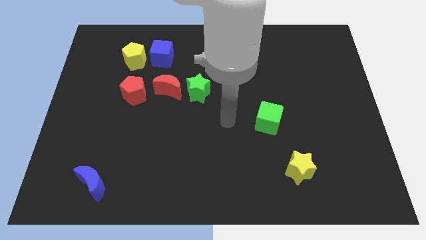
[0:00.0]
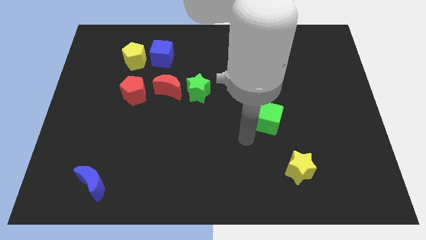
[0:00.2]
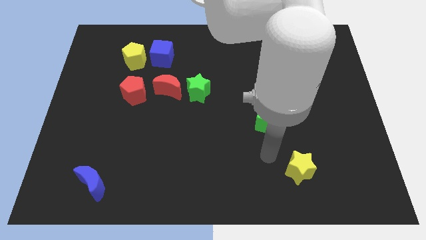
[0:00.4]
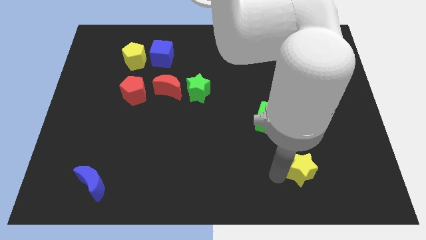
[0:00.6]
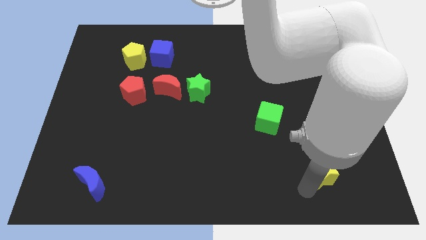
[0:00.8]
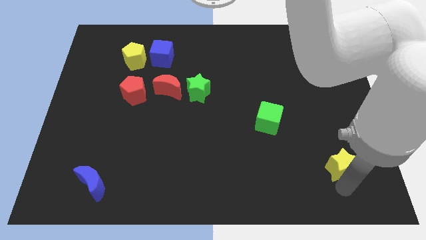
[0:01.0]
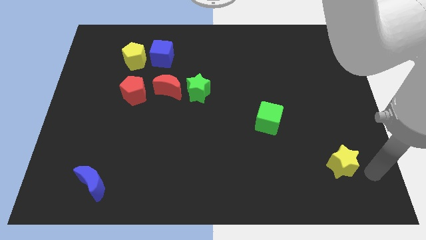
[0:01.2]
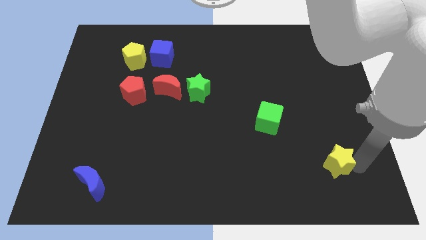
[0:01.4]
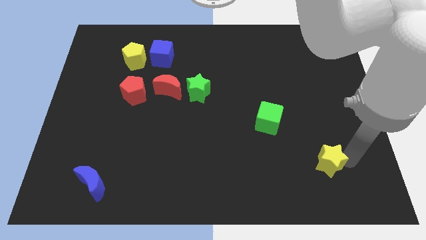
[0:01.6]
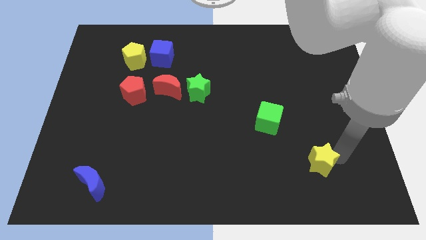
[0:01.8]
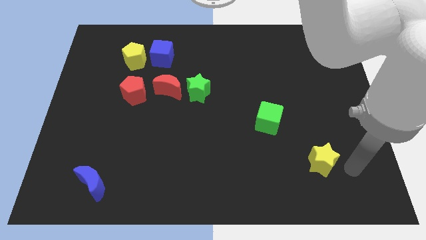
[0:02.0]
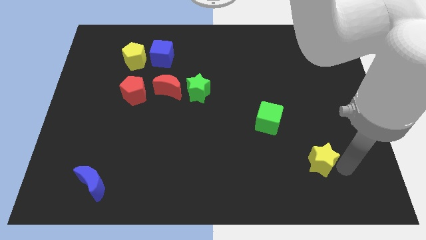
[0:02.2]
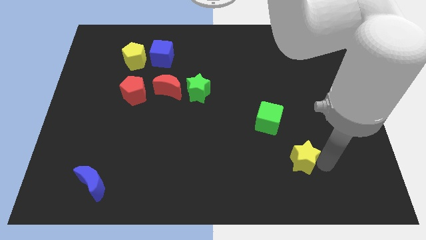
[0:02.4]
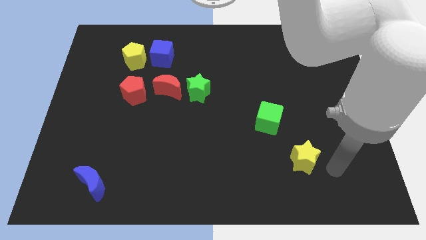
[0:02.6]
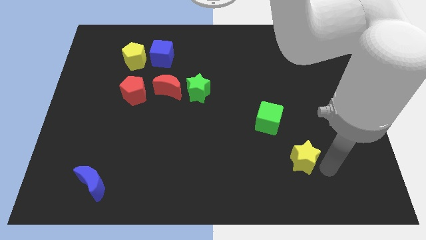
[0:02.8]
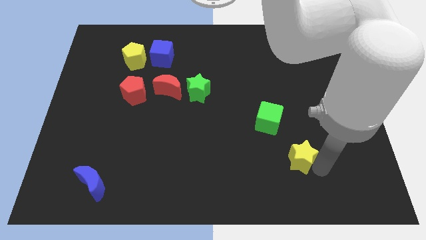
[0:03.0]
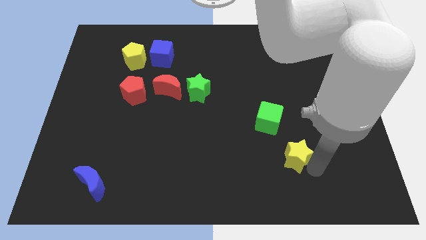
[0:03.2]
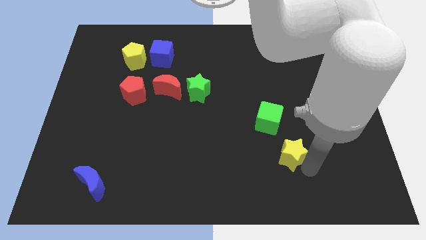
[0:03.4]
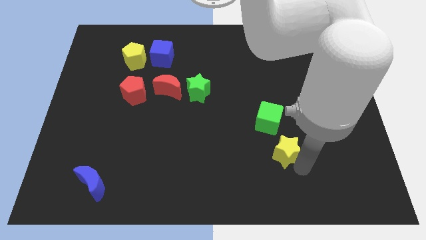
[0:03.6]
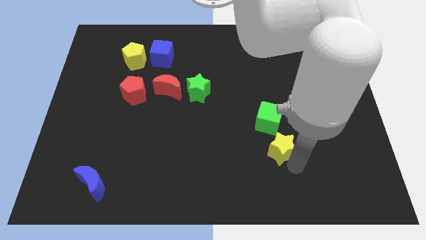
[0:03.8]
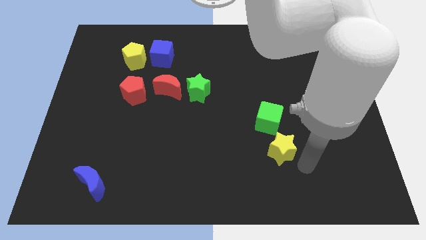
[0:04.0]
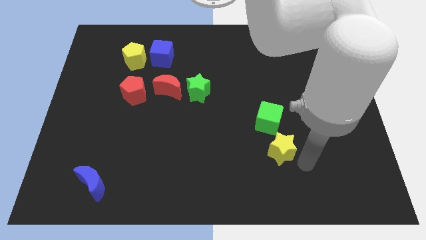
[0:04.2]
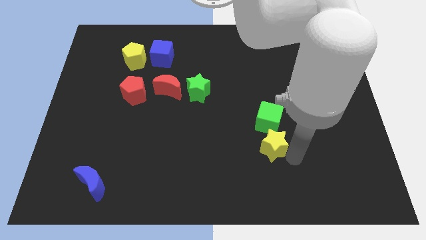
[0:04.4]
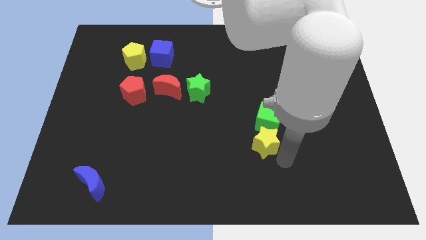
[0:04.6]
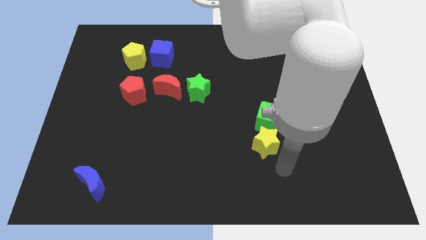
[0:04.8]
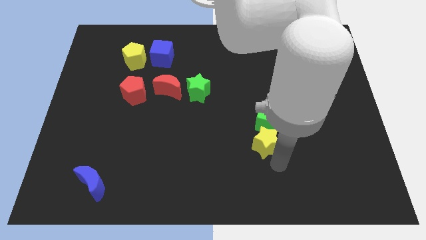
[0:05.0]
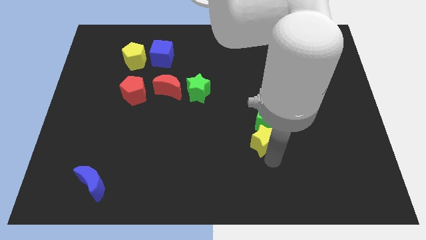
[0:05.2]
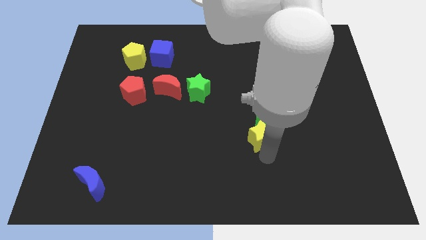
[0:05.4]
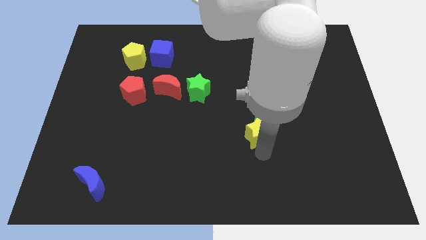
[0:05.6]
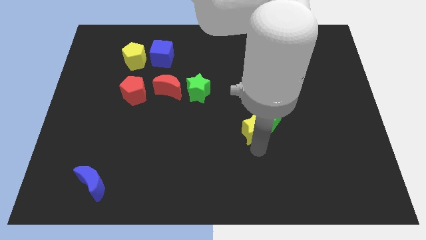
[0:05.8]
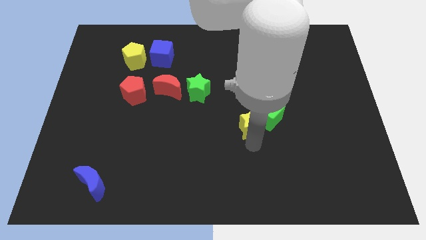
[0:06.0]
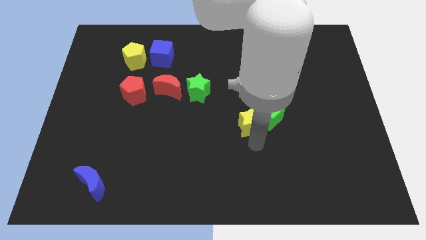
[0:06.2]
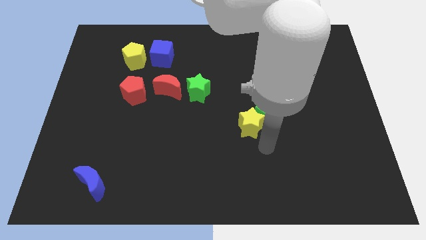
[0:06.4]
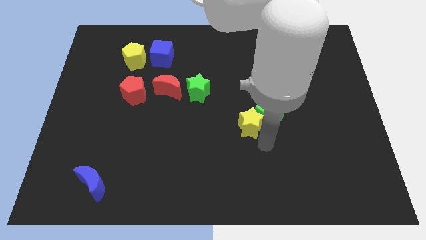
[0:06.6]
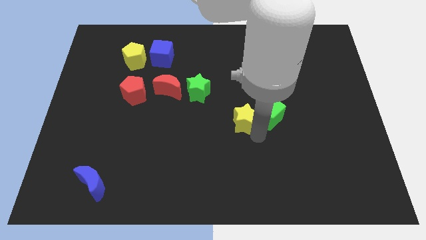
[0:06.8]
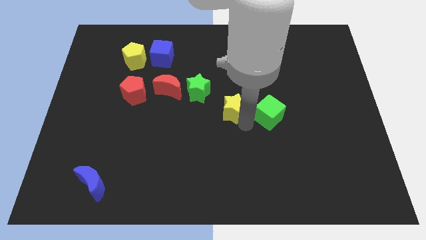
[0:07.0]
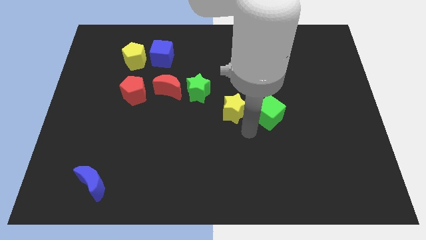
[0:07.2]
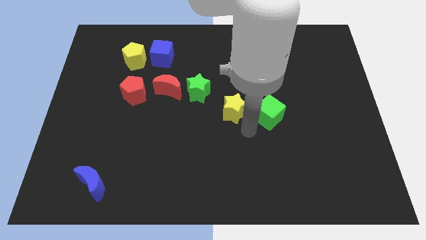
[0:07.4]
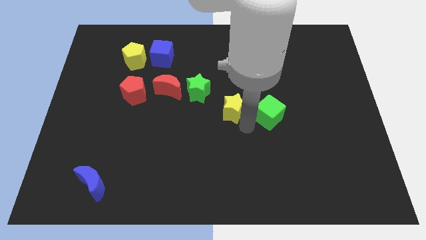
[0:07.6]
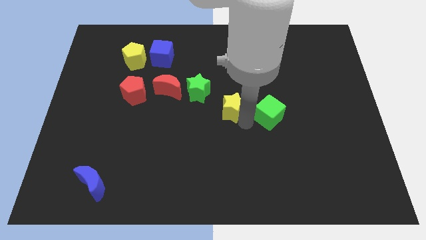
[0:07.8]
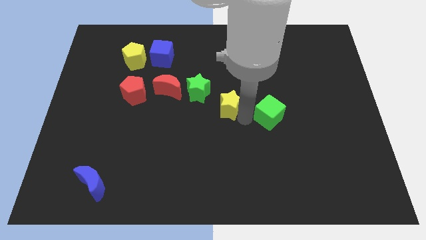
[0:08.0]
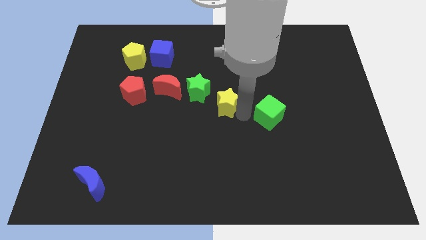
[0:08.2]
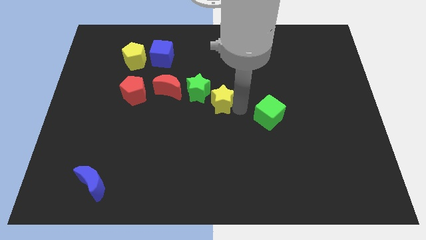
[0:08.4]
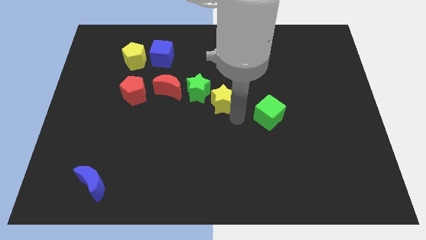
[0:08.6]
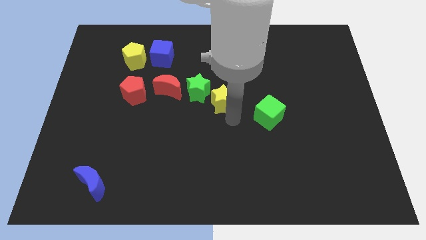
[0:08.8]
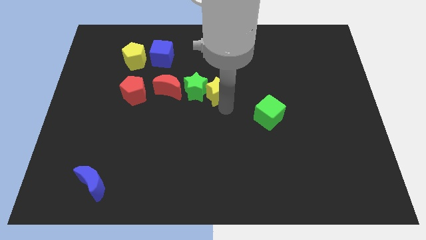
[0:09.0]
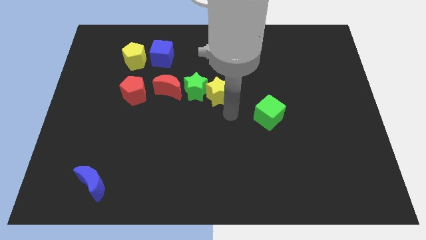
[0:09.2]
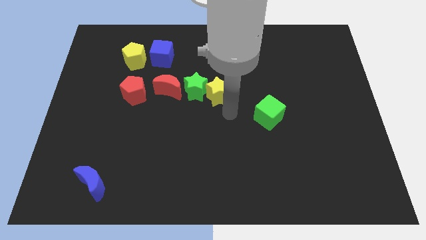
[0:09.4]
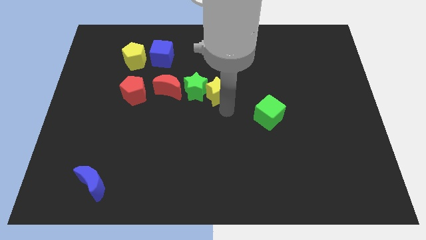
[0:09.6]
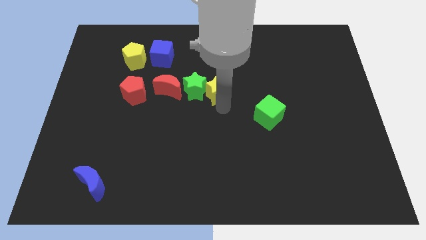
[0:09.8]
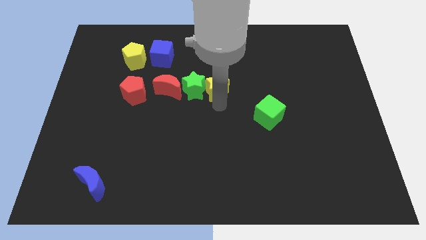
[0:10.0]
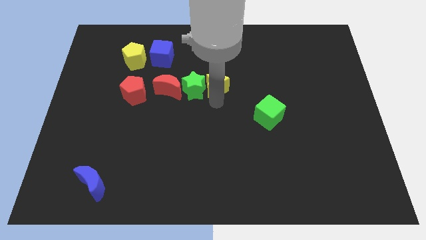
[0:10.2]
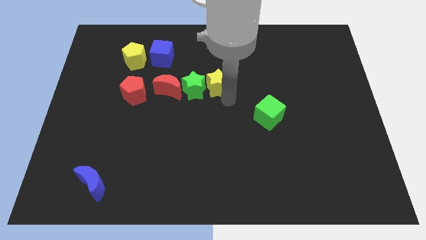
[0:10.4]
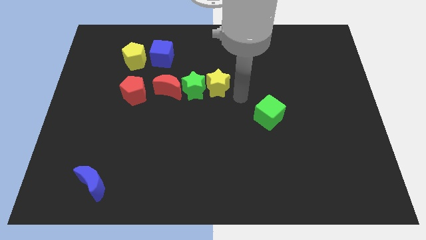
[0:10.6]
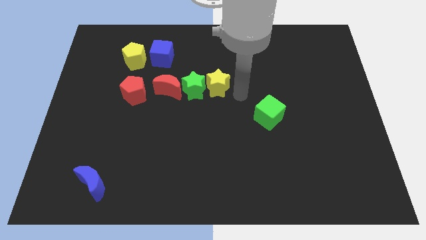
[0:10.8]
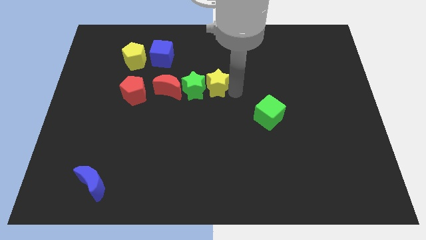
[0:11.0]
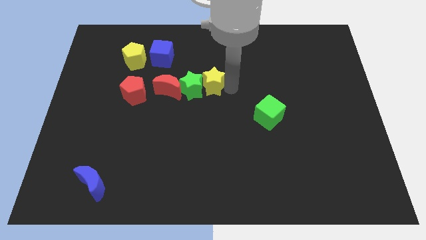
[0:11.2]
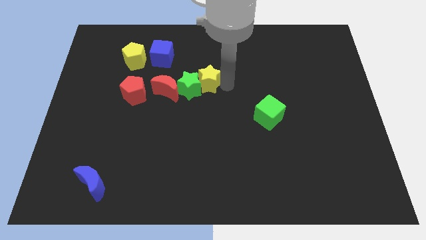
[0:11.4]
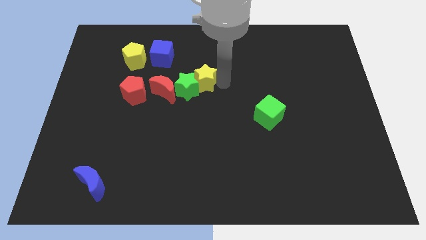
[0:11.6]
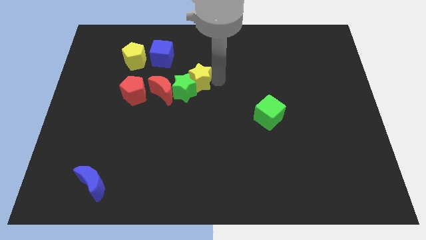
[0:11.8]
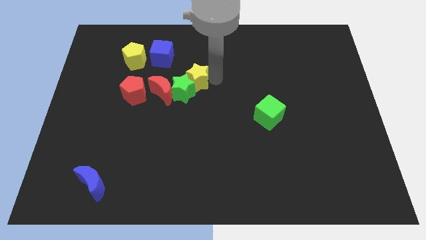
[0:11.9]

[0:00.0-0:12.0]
move the yellow star diagonally down and to the right of the blue cube

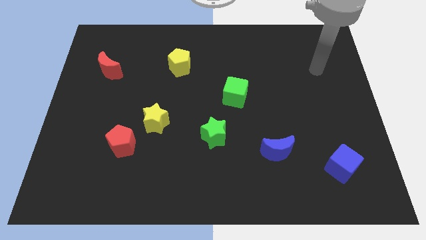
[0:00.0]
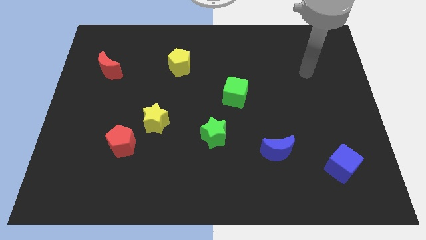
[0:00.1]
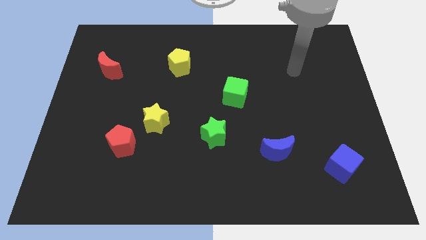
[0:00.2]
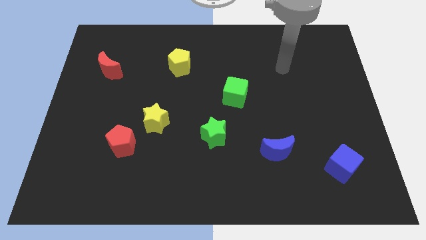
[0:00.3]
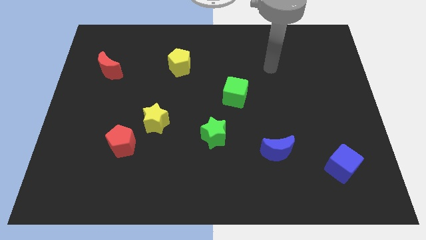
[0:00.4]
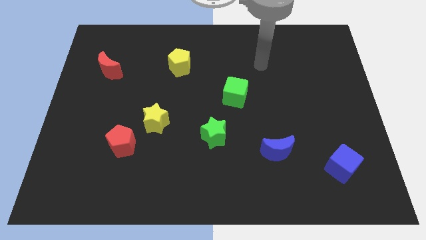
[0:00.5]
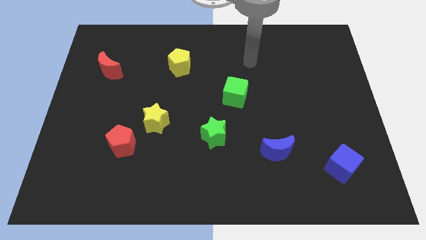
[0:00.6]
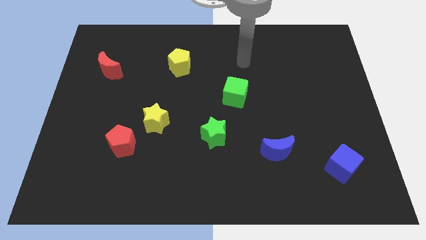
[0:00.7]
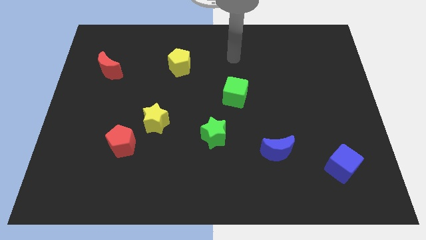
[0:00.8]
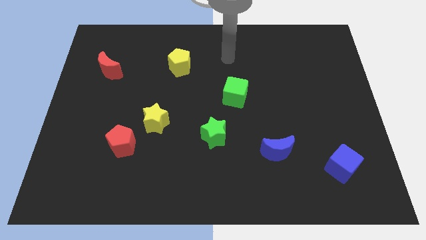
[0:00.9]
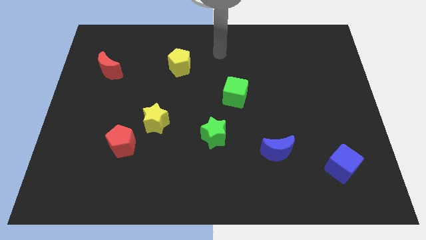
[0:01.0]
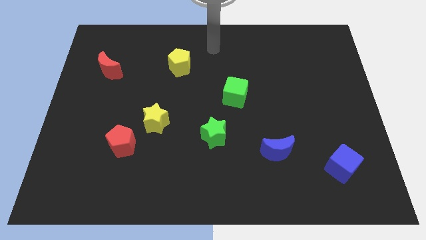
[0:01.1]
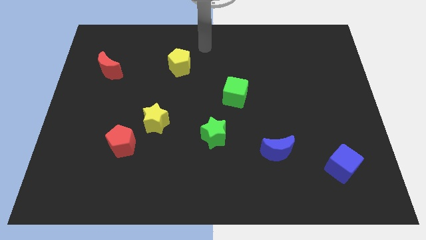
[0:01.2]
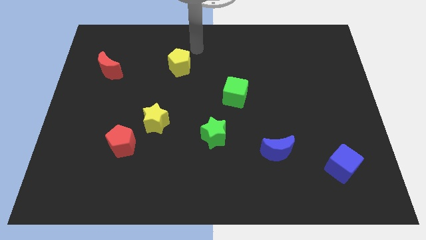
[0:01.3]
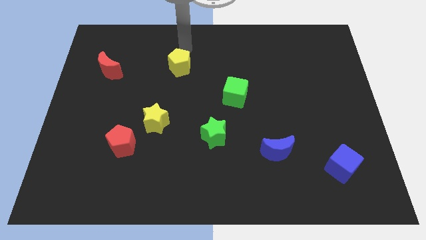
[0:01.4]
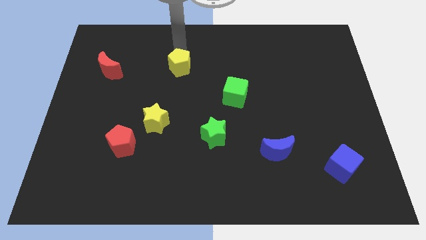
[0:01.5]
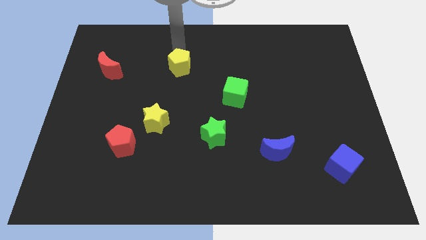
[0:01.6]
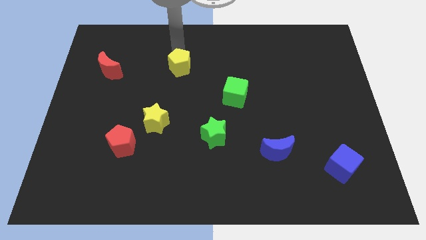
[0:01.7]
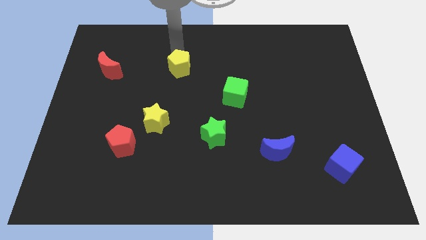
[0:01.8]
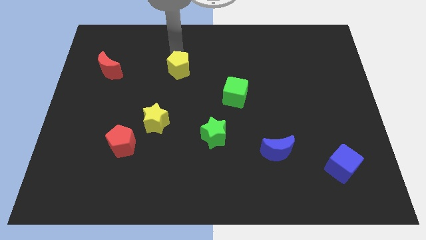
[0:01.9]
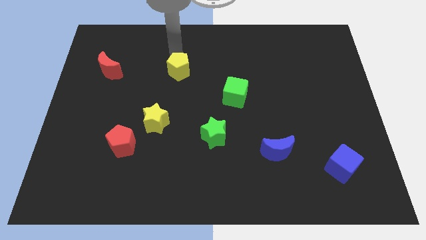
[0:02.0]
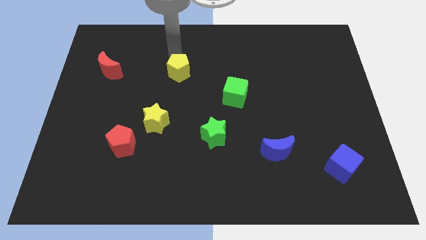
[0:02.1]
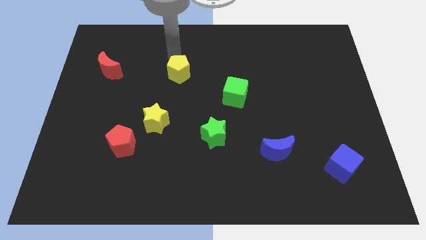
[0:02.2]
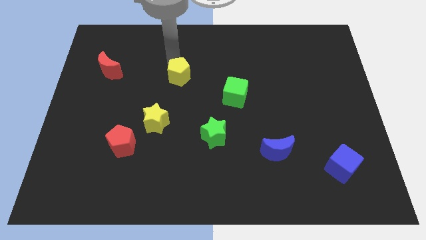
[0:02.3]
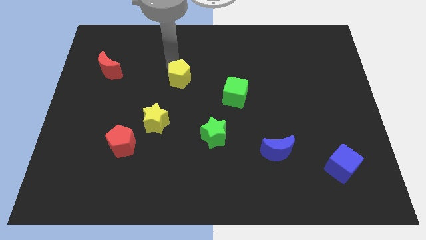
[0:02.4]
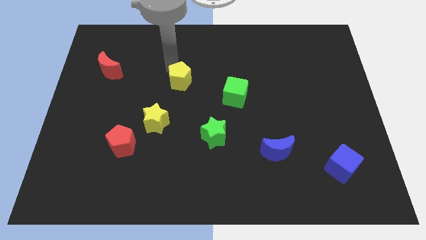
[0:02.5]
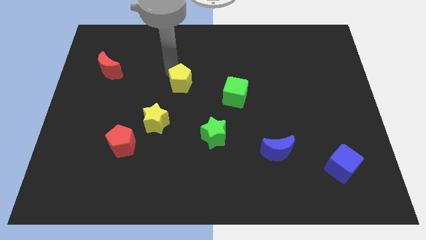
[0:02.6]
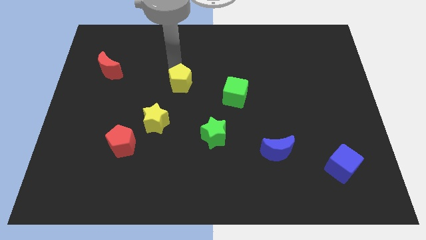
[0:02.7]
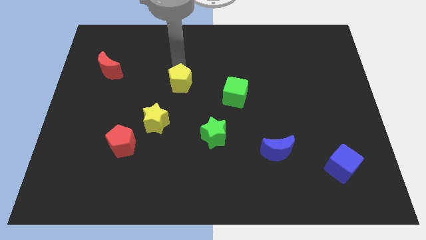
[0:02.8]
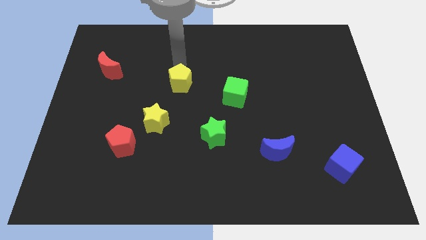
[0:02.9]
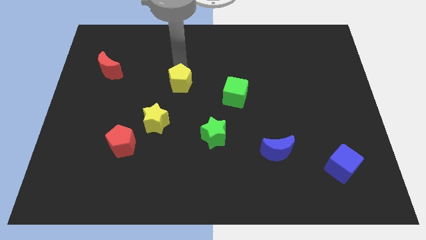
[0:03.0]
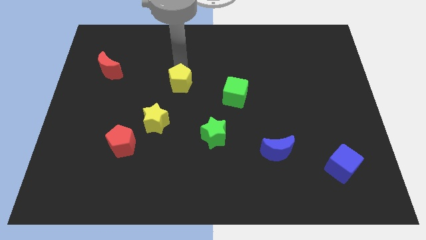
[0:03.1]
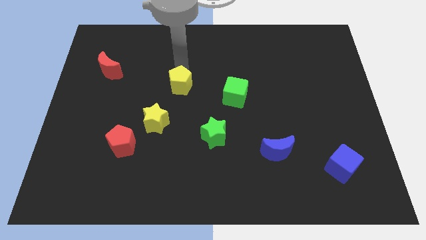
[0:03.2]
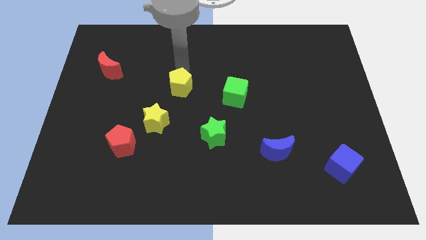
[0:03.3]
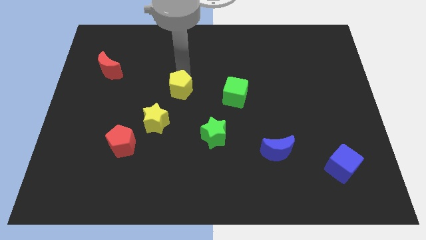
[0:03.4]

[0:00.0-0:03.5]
push the yellow pentagon diagonally up and to the right of the yellow star
